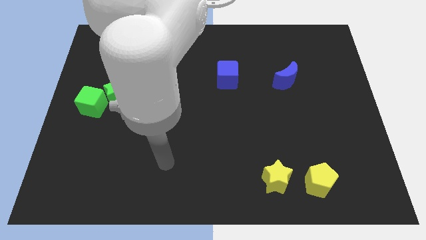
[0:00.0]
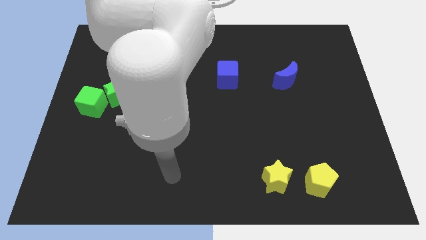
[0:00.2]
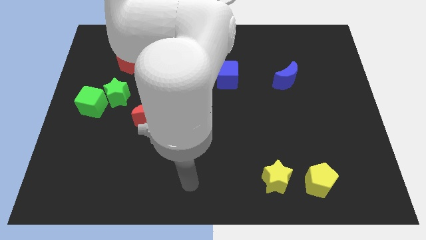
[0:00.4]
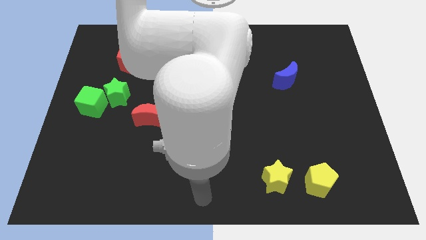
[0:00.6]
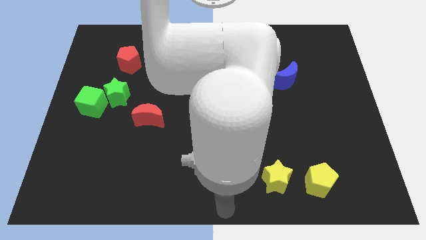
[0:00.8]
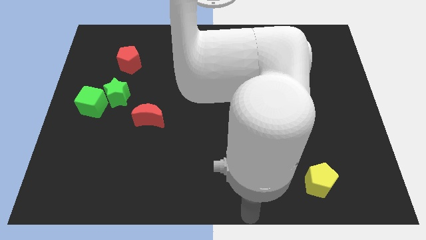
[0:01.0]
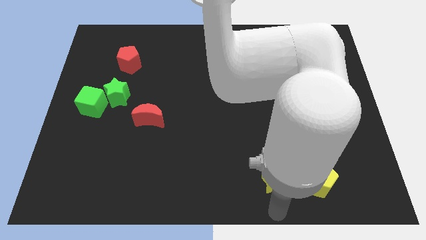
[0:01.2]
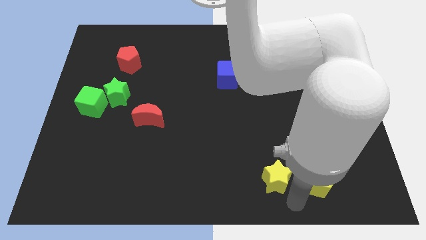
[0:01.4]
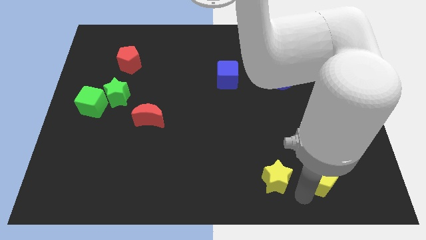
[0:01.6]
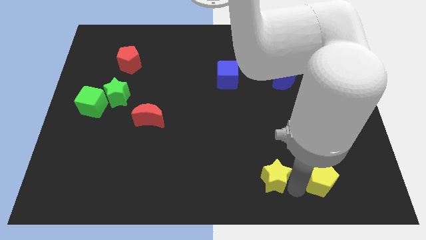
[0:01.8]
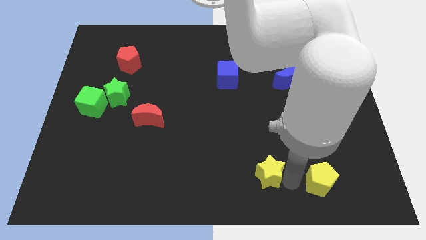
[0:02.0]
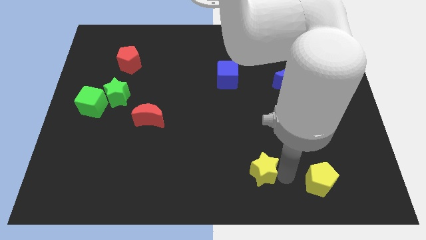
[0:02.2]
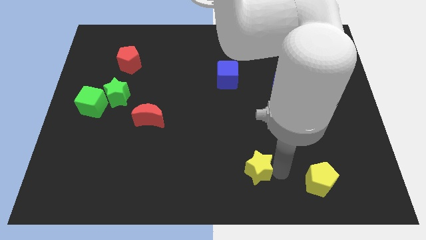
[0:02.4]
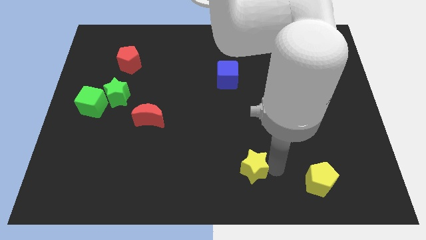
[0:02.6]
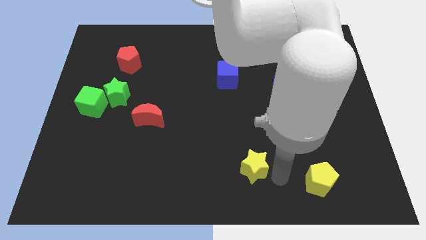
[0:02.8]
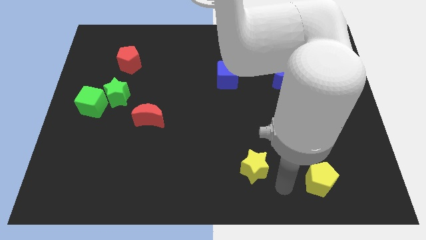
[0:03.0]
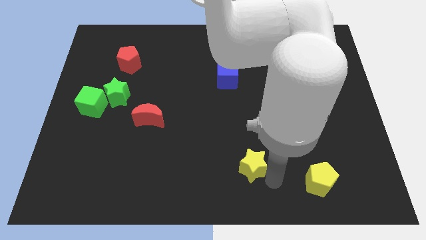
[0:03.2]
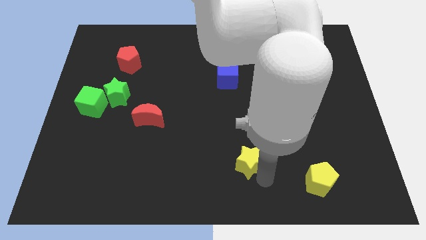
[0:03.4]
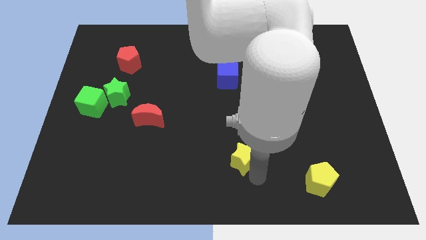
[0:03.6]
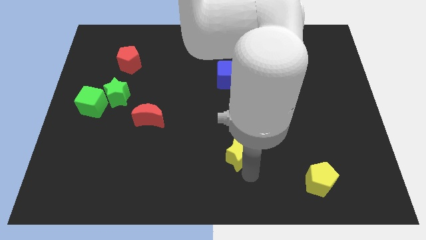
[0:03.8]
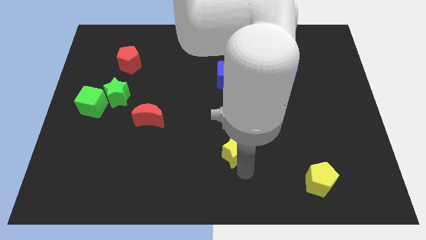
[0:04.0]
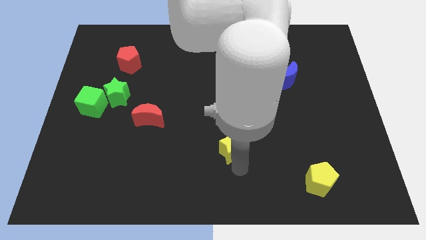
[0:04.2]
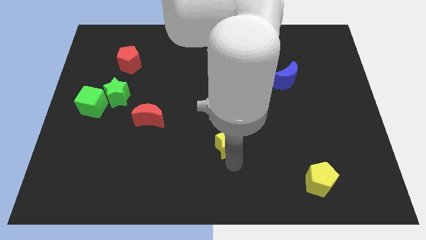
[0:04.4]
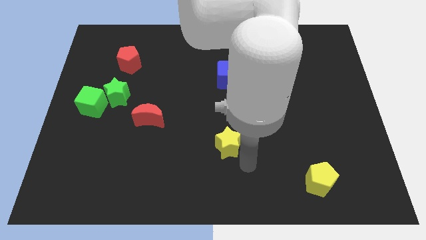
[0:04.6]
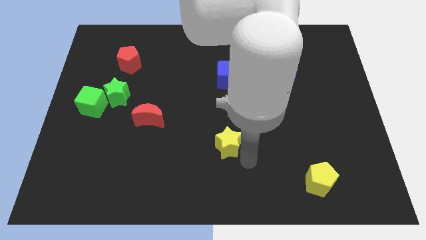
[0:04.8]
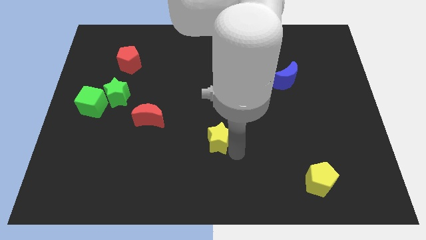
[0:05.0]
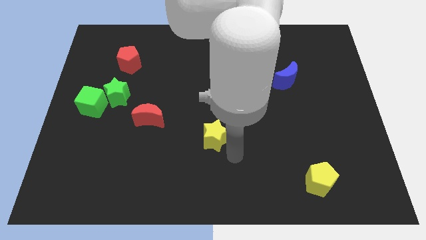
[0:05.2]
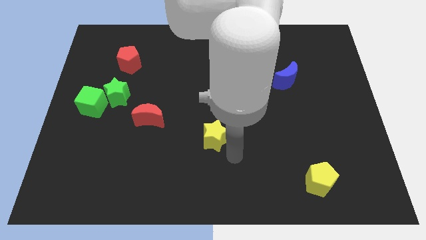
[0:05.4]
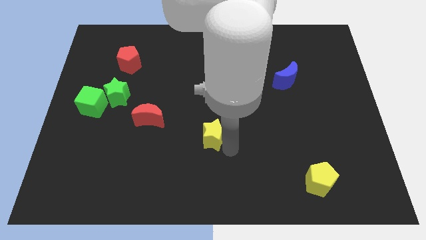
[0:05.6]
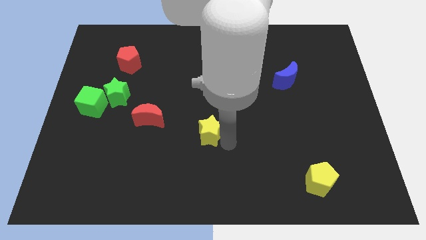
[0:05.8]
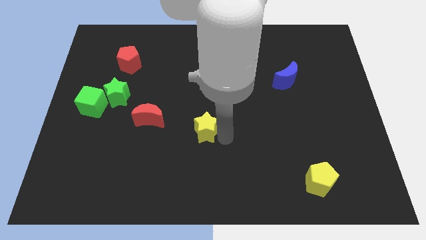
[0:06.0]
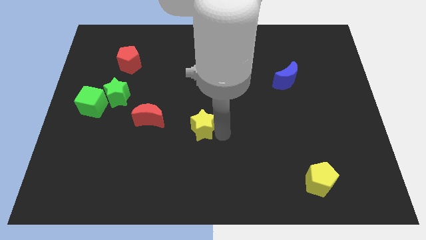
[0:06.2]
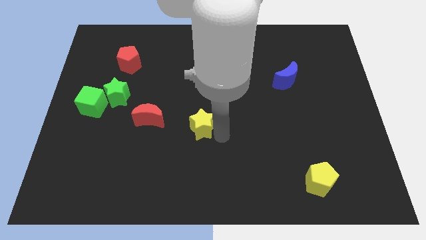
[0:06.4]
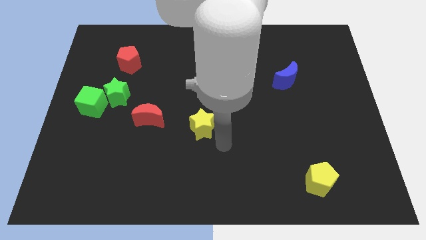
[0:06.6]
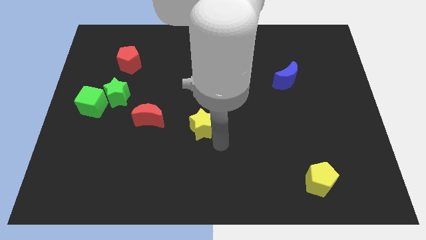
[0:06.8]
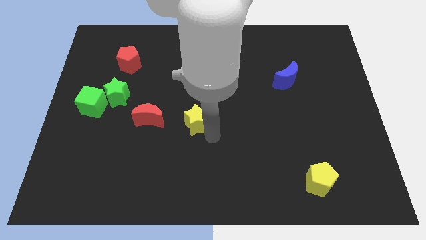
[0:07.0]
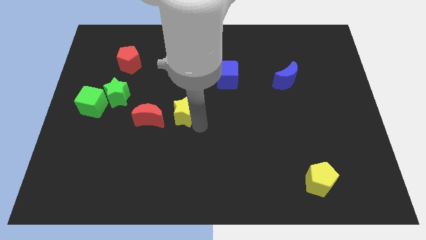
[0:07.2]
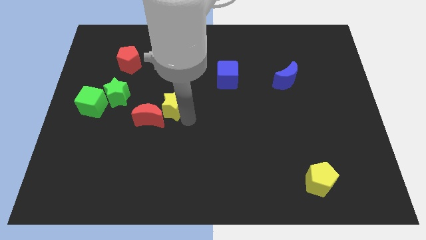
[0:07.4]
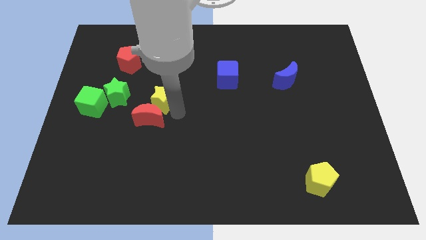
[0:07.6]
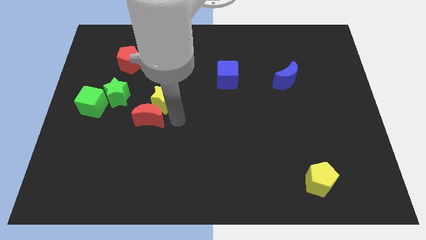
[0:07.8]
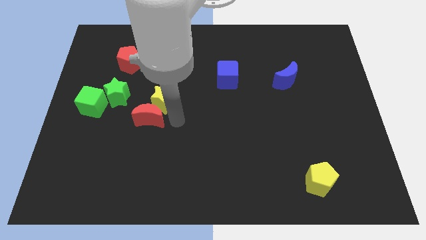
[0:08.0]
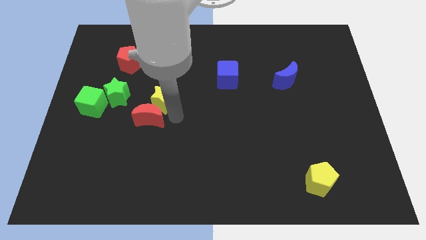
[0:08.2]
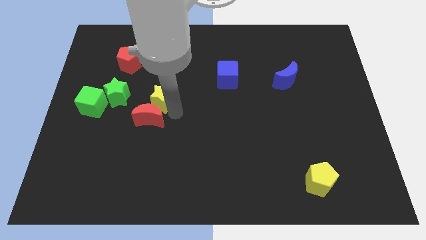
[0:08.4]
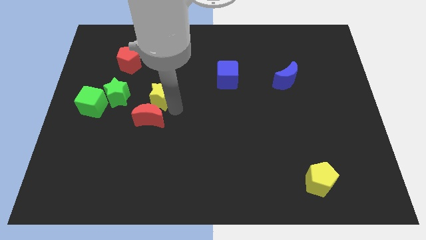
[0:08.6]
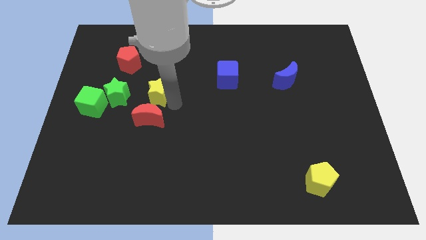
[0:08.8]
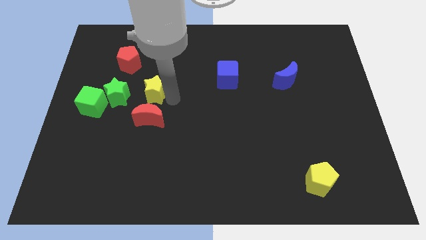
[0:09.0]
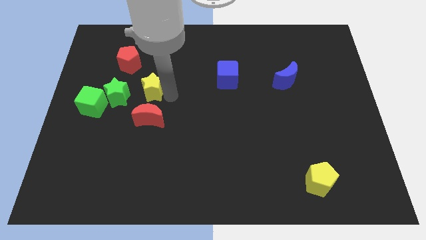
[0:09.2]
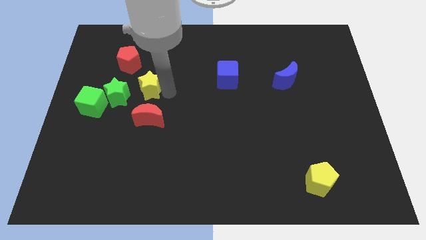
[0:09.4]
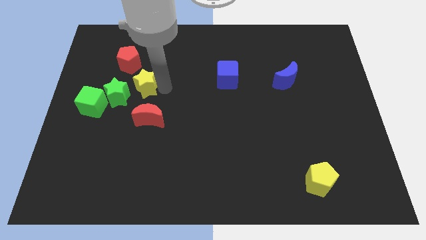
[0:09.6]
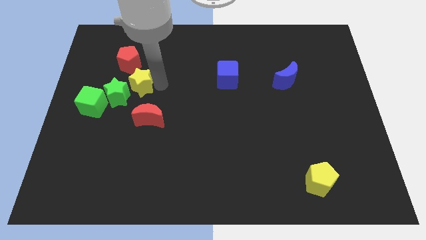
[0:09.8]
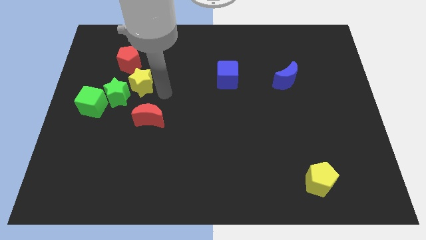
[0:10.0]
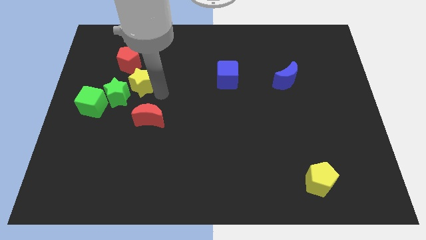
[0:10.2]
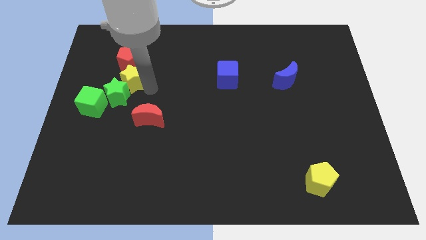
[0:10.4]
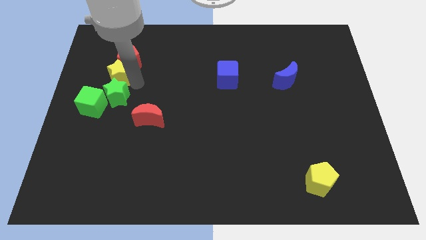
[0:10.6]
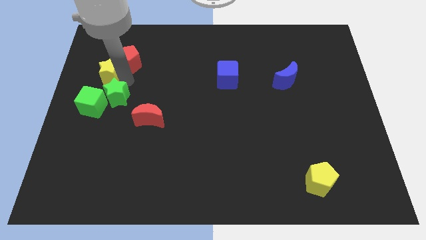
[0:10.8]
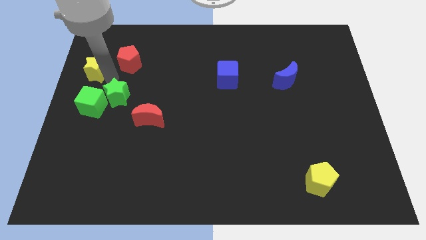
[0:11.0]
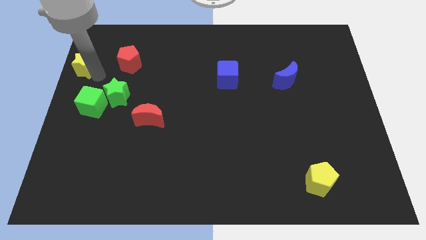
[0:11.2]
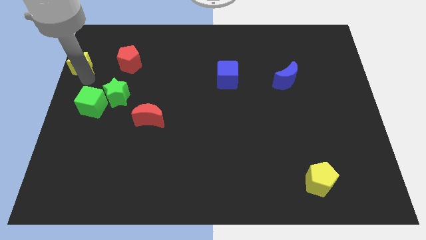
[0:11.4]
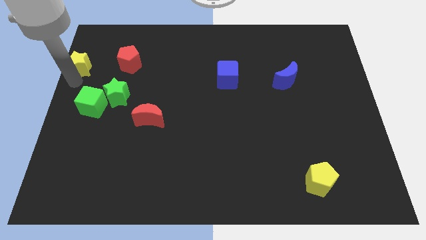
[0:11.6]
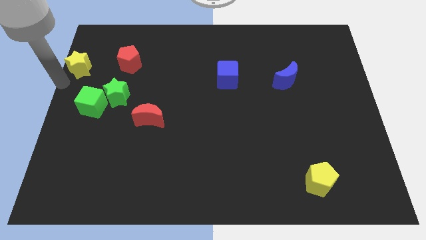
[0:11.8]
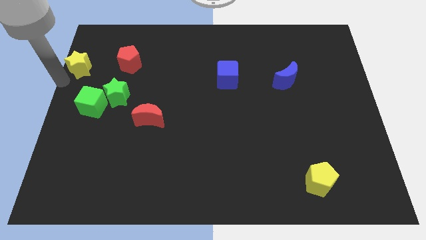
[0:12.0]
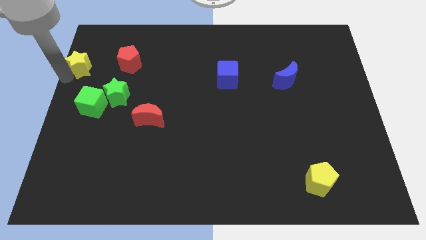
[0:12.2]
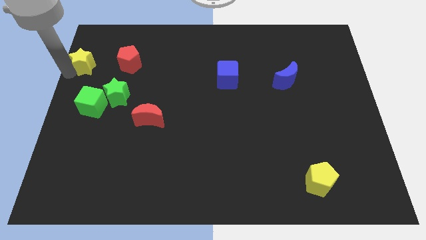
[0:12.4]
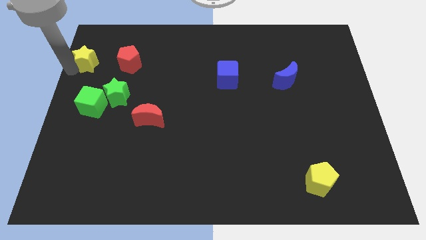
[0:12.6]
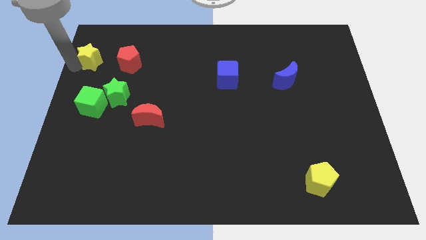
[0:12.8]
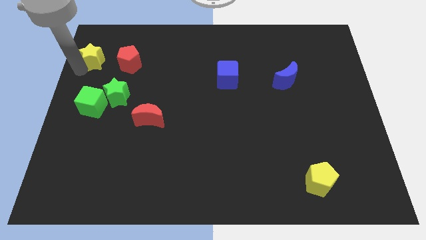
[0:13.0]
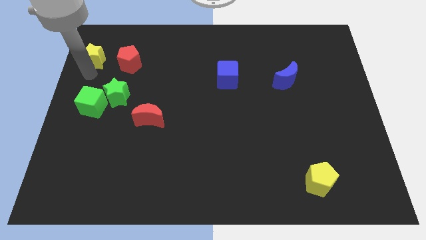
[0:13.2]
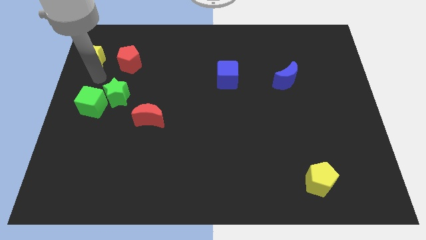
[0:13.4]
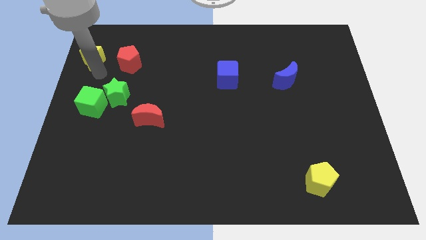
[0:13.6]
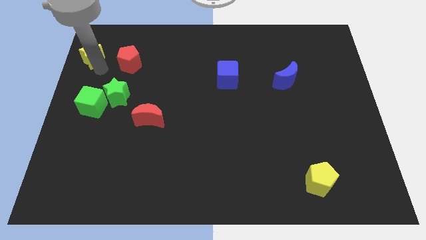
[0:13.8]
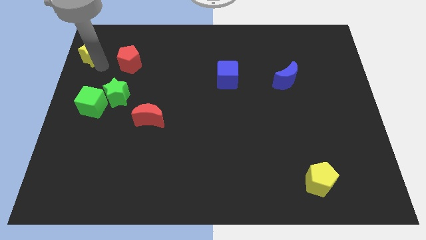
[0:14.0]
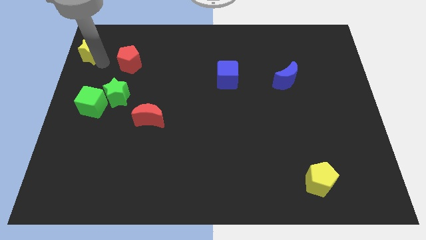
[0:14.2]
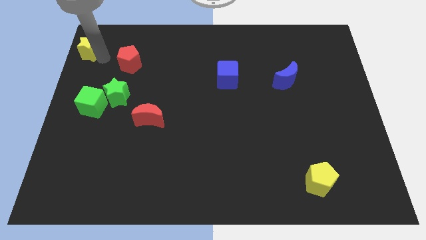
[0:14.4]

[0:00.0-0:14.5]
push the yellow star to the upper left corner

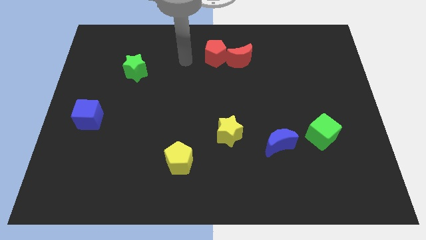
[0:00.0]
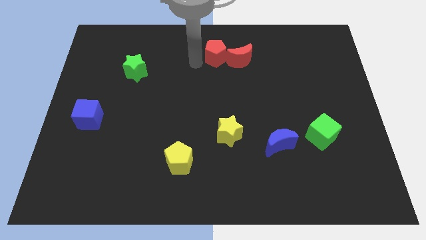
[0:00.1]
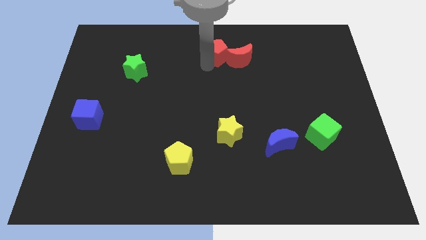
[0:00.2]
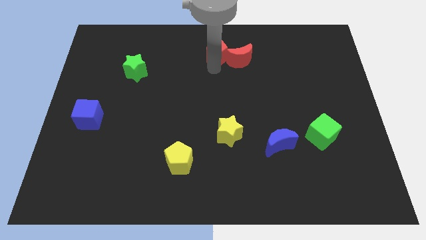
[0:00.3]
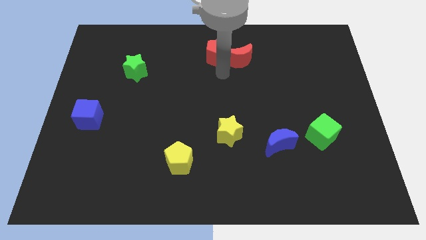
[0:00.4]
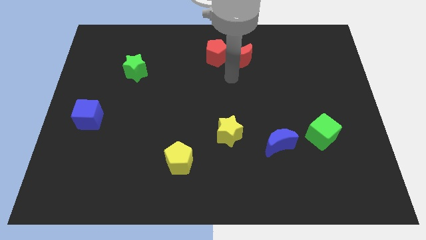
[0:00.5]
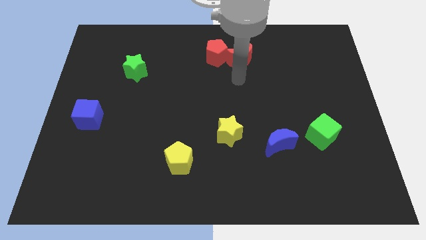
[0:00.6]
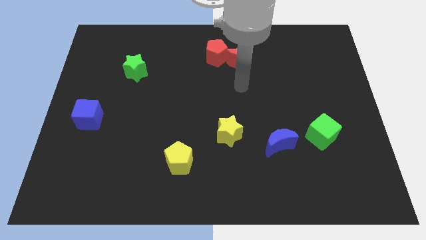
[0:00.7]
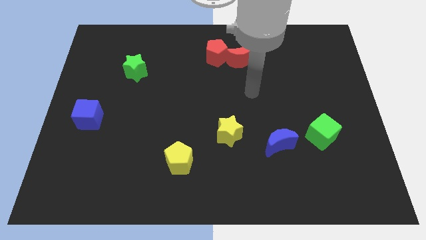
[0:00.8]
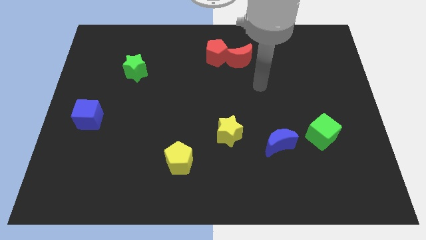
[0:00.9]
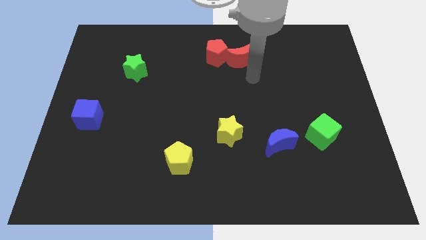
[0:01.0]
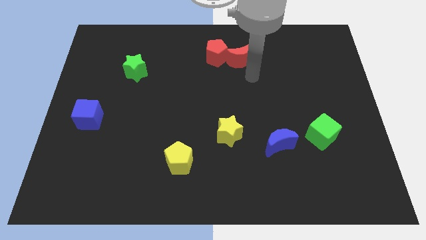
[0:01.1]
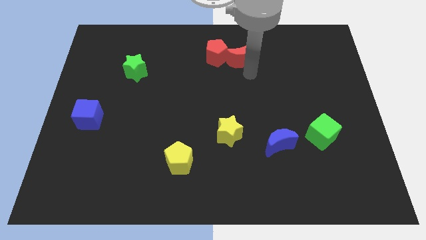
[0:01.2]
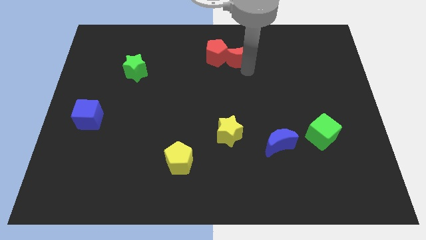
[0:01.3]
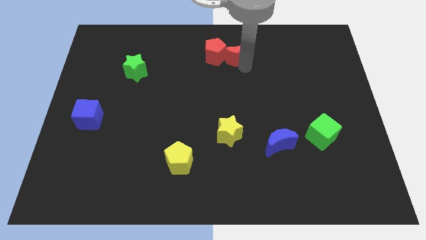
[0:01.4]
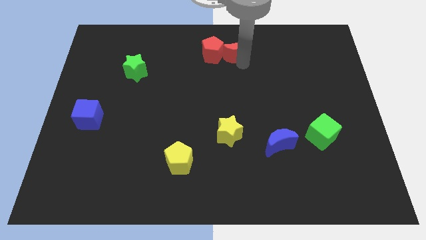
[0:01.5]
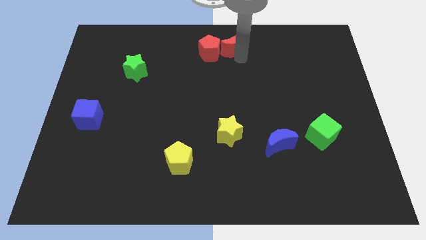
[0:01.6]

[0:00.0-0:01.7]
slide the red moon to the top
